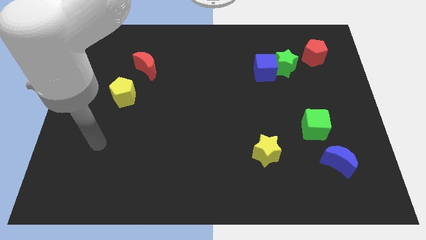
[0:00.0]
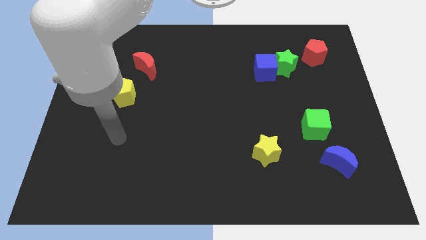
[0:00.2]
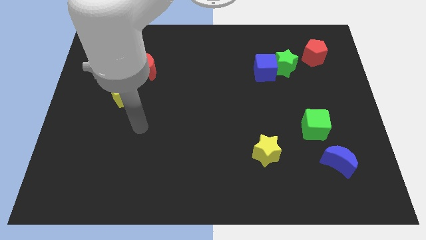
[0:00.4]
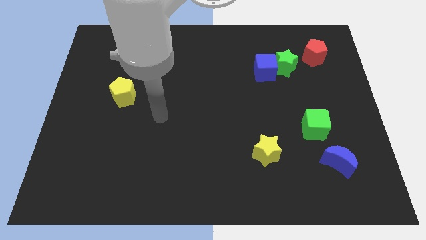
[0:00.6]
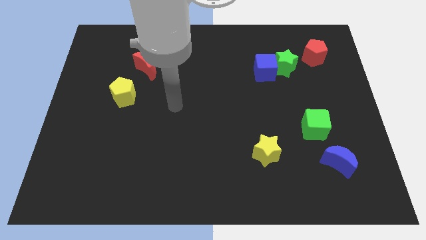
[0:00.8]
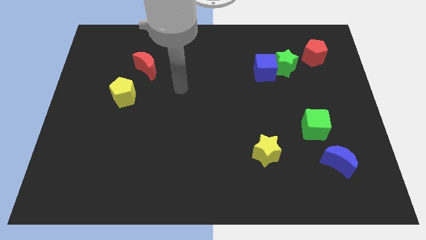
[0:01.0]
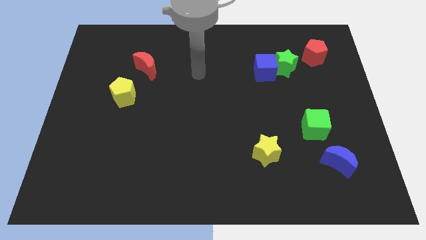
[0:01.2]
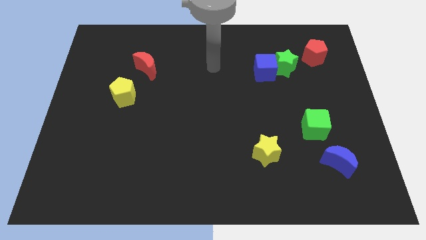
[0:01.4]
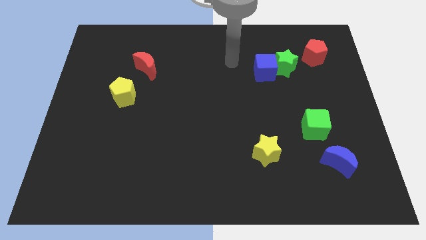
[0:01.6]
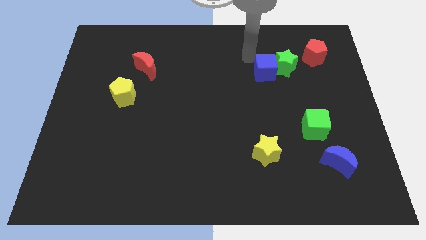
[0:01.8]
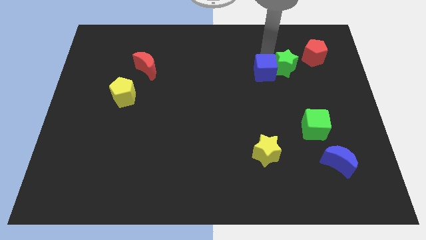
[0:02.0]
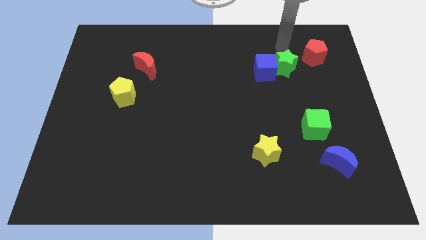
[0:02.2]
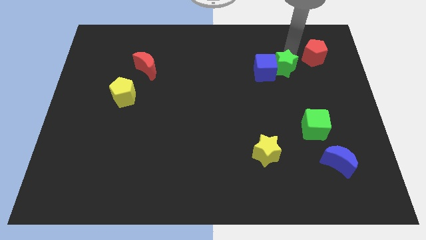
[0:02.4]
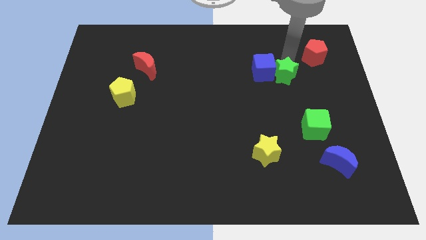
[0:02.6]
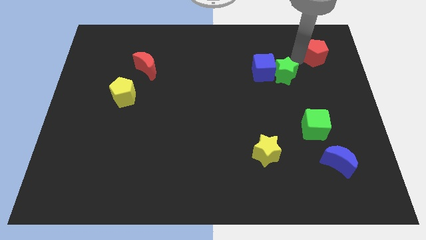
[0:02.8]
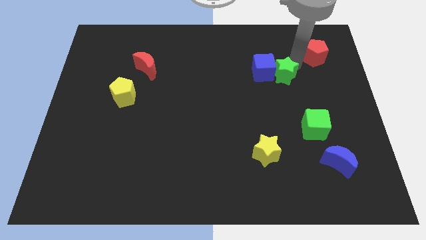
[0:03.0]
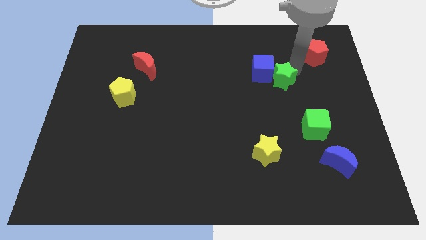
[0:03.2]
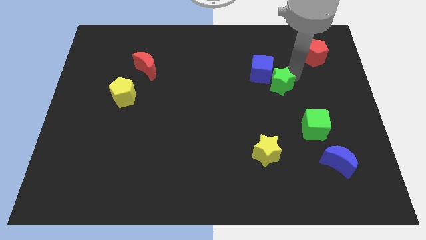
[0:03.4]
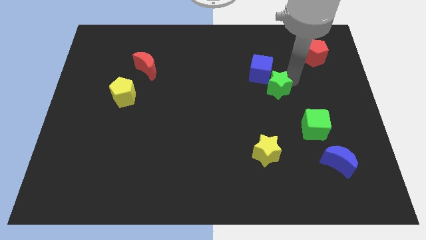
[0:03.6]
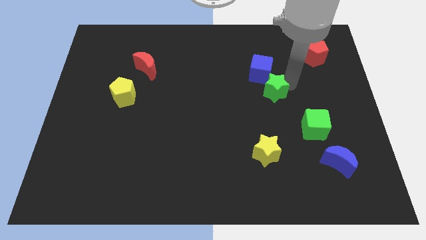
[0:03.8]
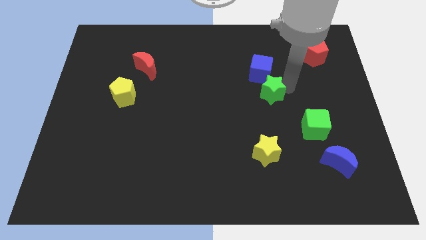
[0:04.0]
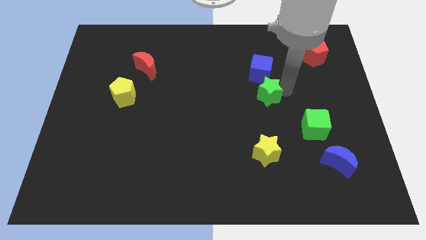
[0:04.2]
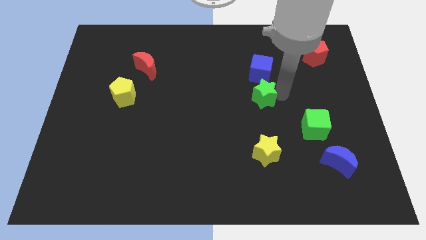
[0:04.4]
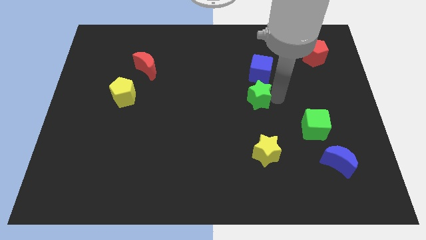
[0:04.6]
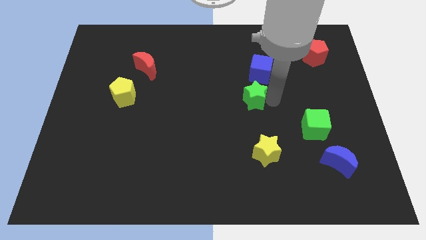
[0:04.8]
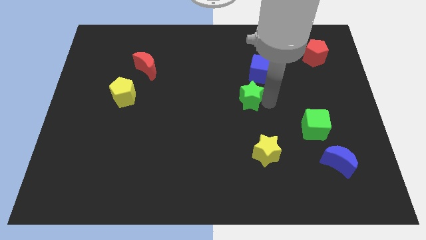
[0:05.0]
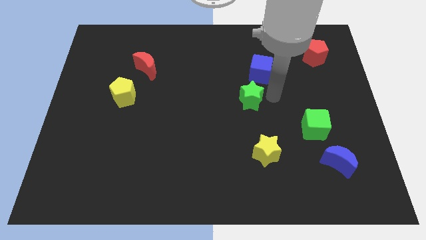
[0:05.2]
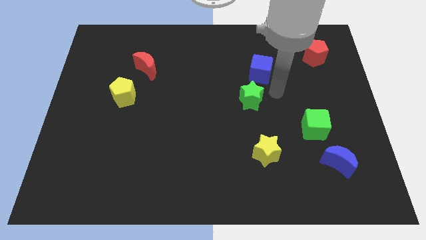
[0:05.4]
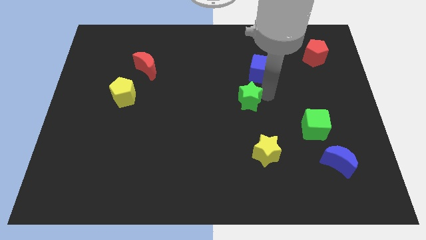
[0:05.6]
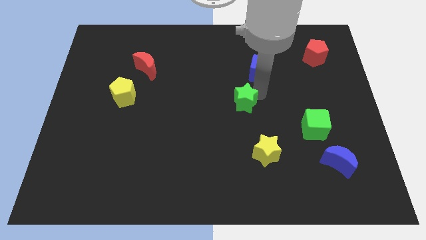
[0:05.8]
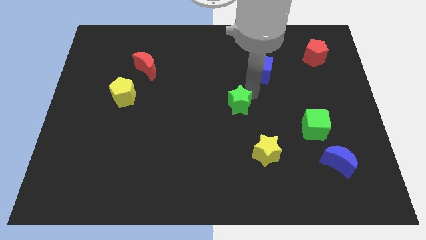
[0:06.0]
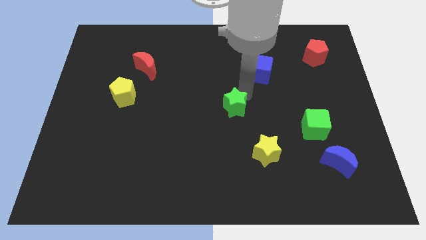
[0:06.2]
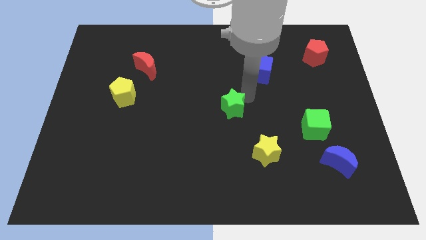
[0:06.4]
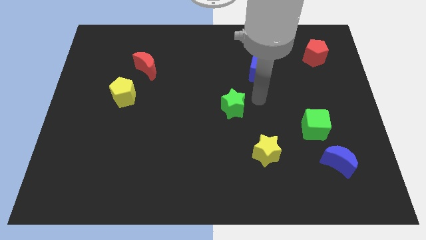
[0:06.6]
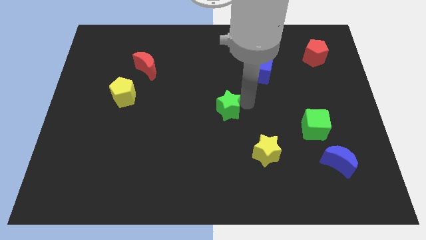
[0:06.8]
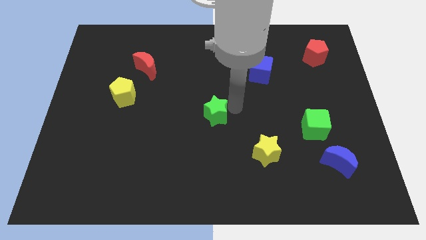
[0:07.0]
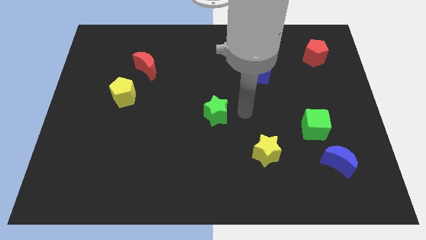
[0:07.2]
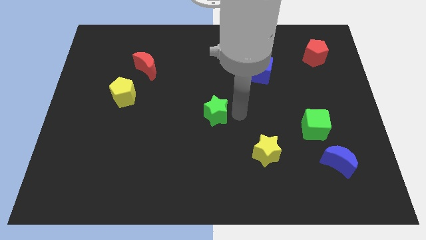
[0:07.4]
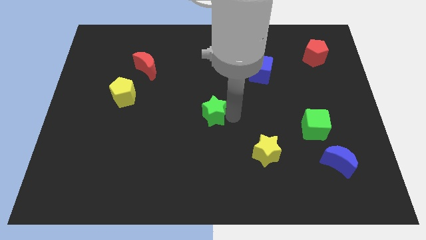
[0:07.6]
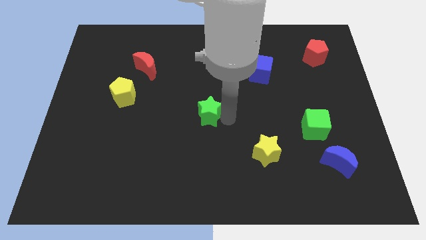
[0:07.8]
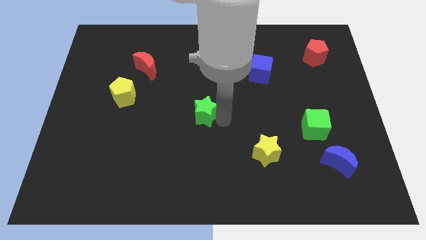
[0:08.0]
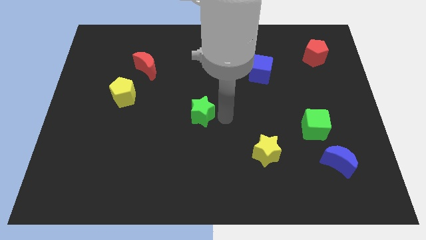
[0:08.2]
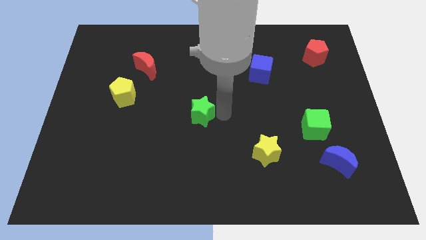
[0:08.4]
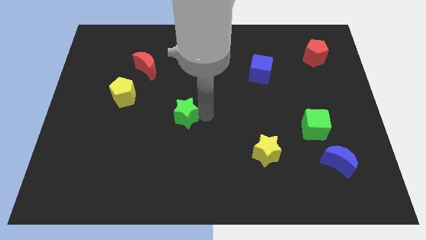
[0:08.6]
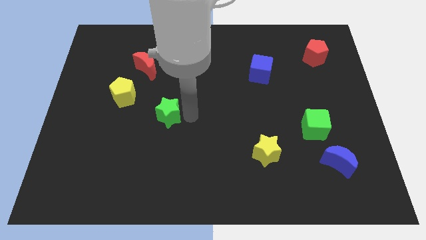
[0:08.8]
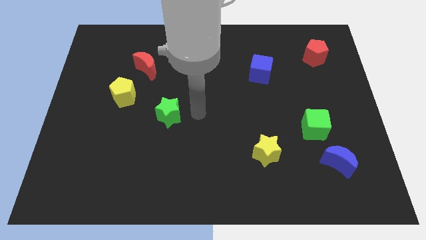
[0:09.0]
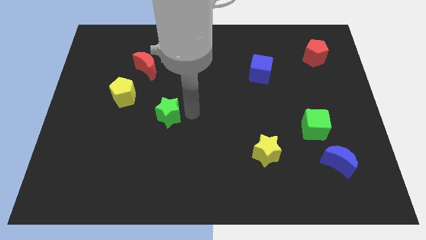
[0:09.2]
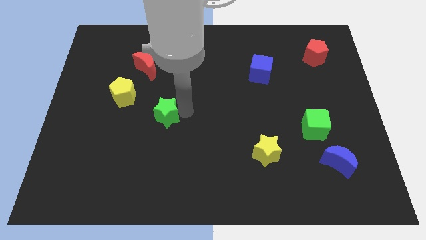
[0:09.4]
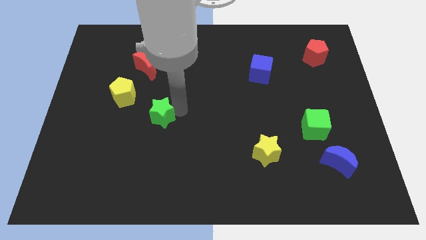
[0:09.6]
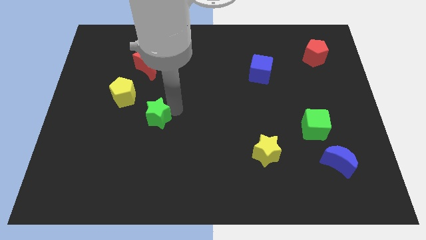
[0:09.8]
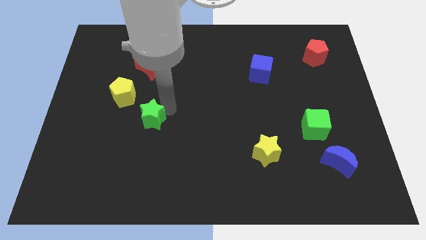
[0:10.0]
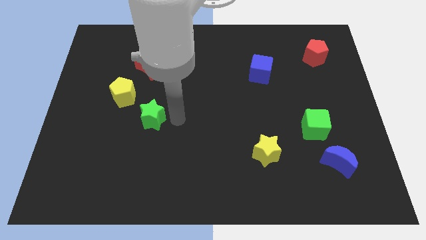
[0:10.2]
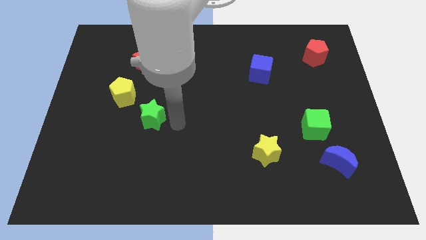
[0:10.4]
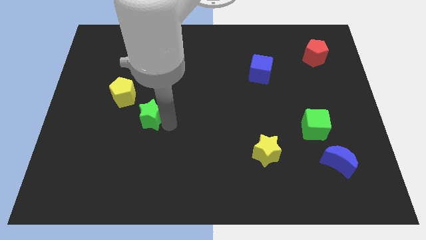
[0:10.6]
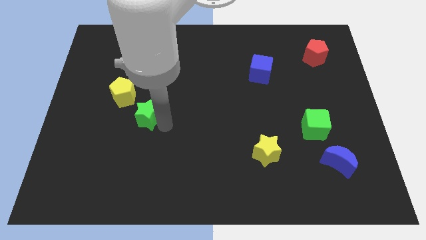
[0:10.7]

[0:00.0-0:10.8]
put the green star to the bottom side of the red moon

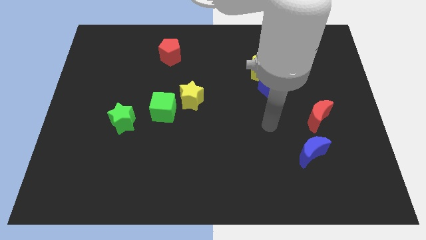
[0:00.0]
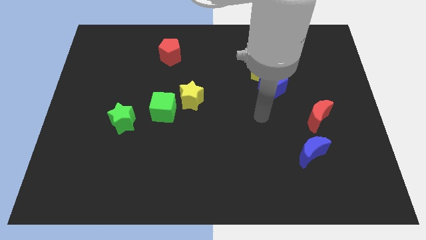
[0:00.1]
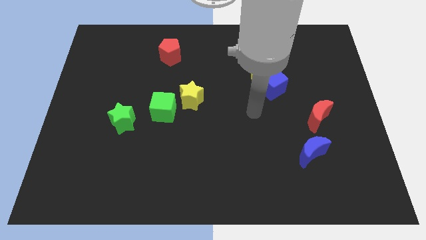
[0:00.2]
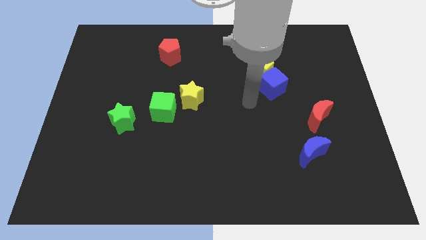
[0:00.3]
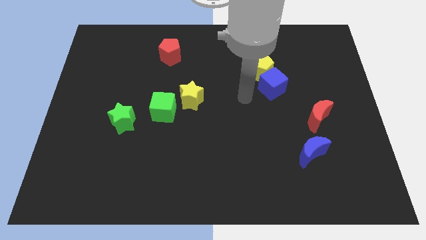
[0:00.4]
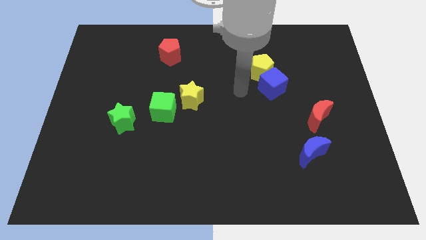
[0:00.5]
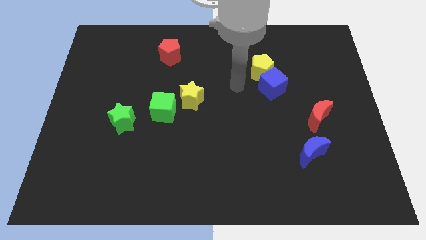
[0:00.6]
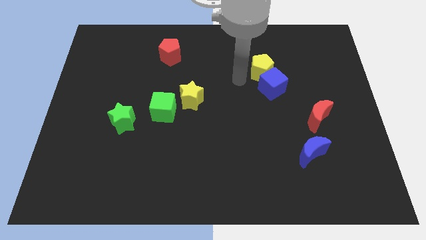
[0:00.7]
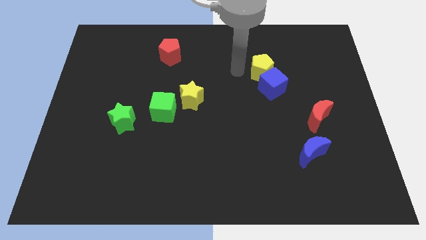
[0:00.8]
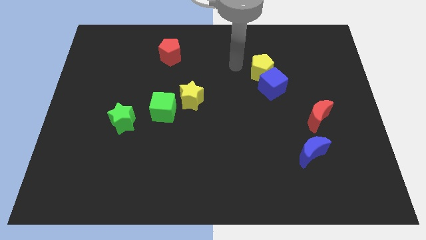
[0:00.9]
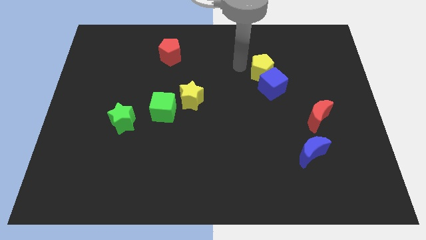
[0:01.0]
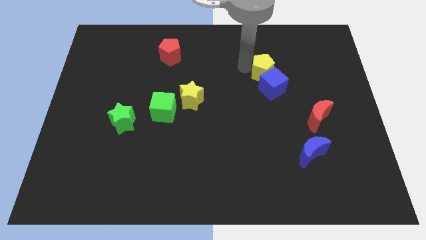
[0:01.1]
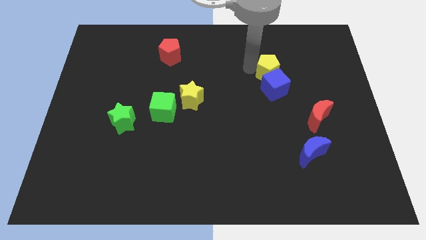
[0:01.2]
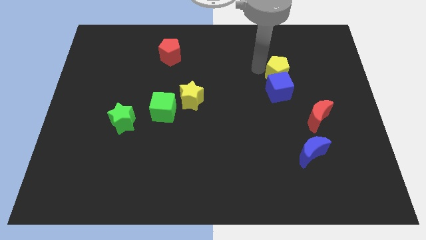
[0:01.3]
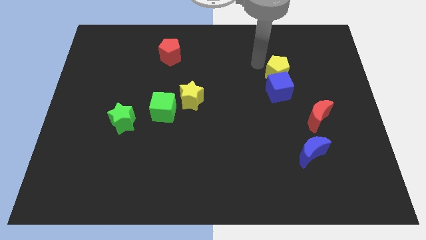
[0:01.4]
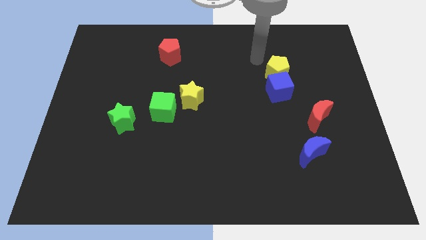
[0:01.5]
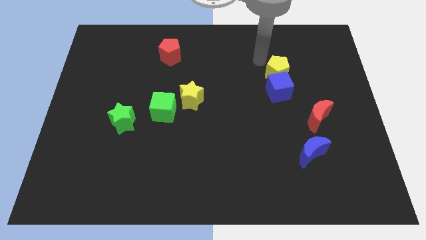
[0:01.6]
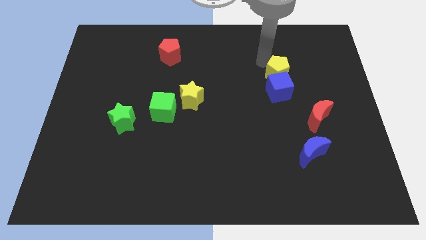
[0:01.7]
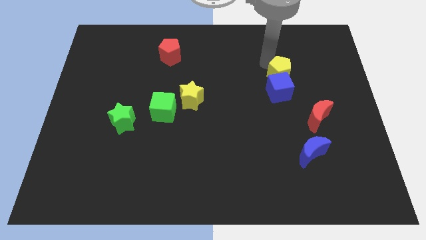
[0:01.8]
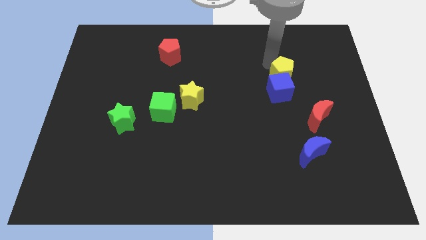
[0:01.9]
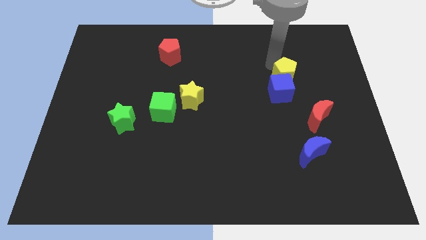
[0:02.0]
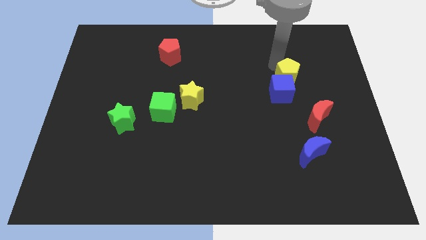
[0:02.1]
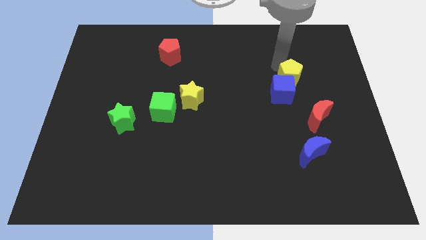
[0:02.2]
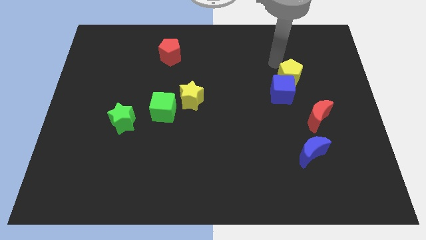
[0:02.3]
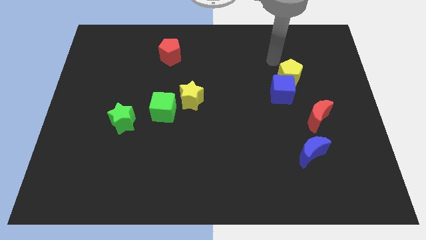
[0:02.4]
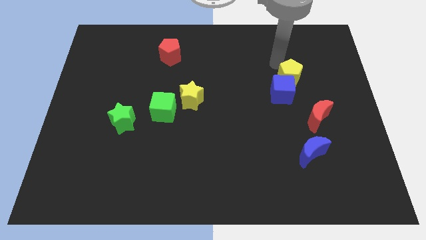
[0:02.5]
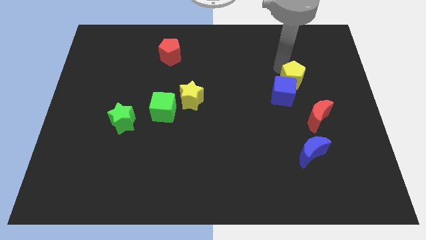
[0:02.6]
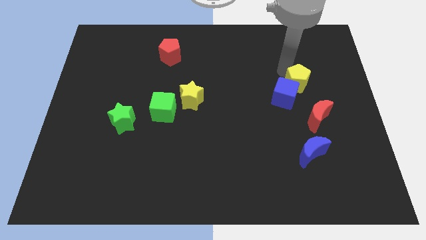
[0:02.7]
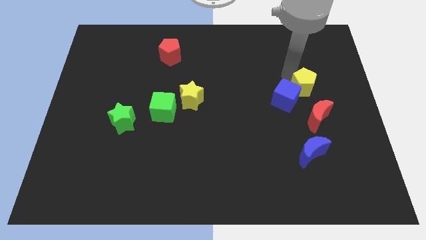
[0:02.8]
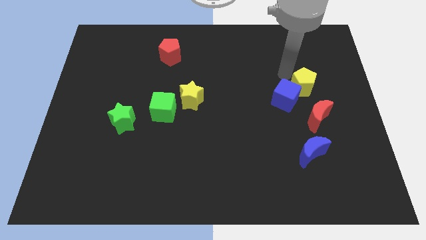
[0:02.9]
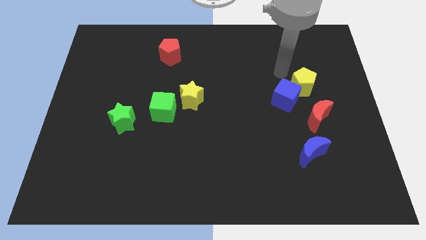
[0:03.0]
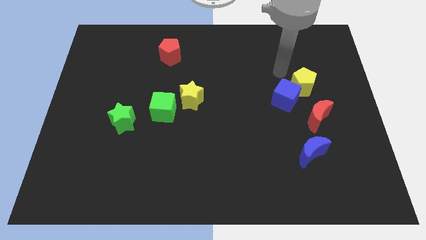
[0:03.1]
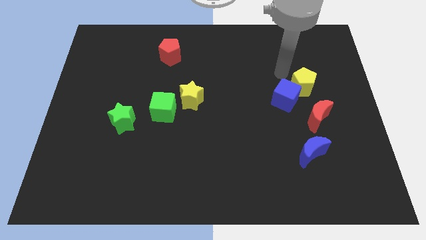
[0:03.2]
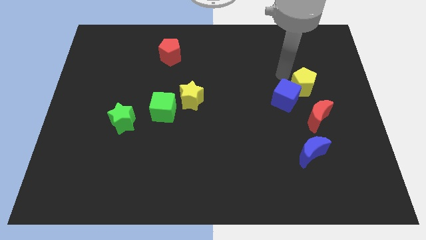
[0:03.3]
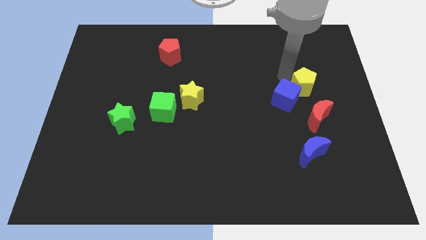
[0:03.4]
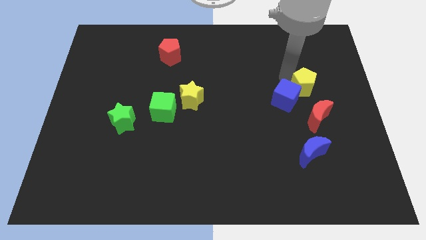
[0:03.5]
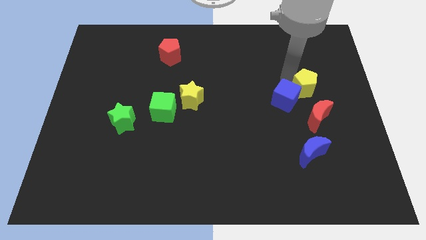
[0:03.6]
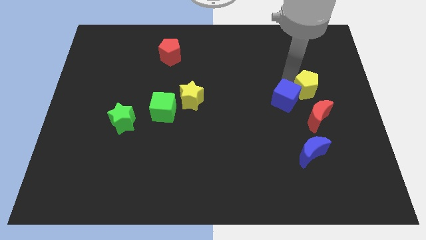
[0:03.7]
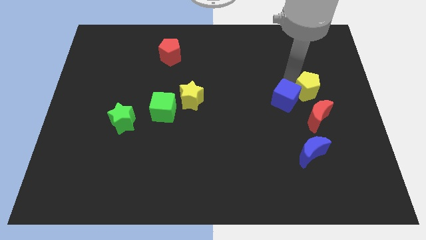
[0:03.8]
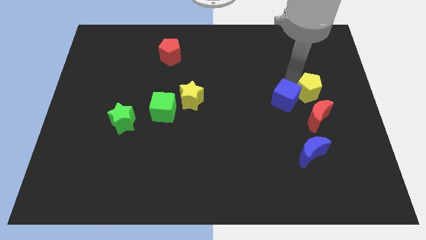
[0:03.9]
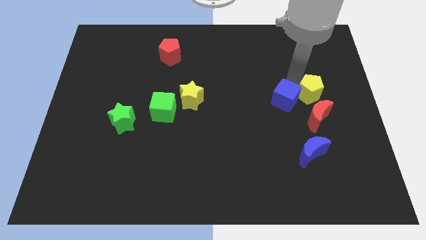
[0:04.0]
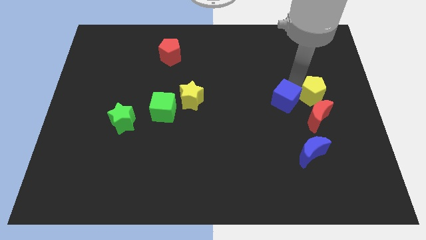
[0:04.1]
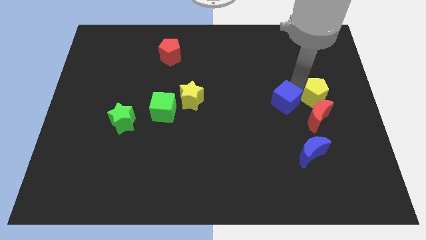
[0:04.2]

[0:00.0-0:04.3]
push the yellow pentagon diagonally up and to the right of the red moon
